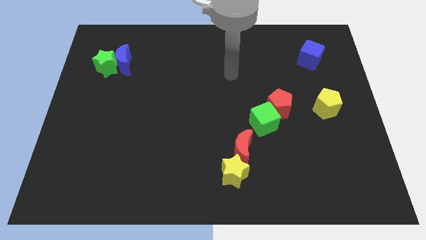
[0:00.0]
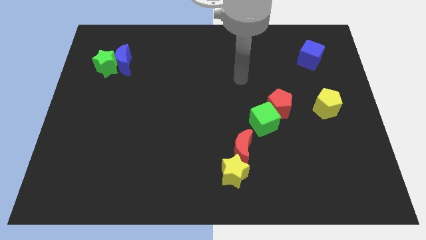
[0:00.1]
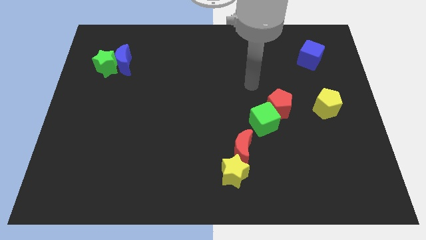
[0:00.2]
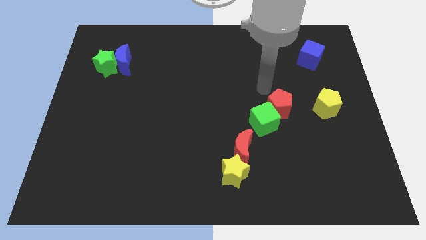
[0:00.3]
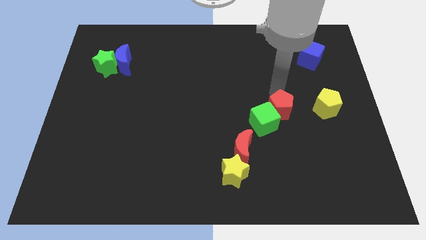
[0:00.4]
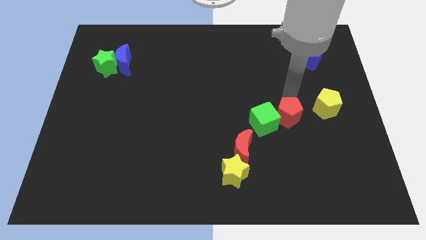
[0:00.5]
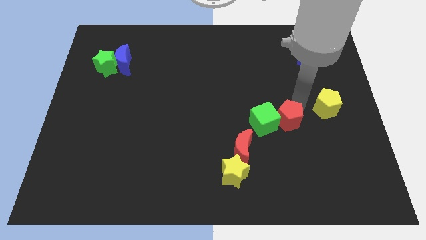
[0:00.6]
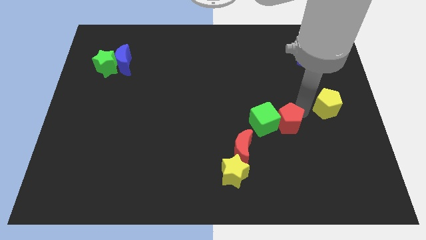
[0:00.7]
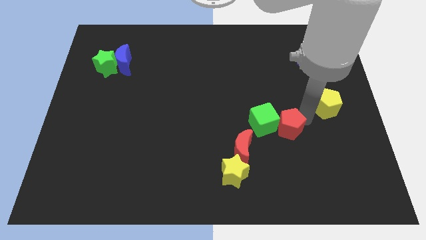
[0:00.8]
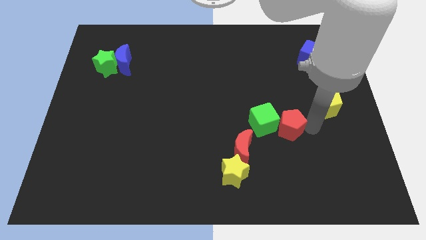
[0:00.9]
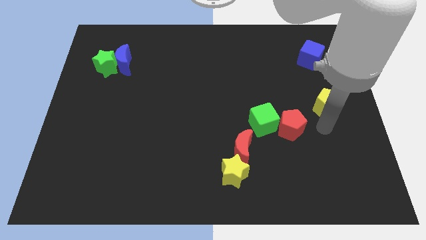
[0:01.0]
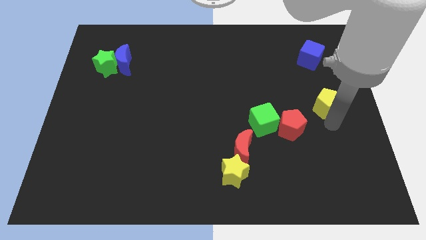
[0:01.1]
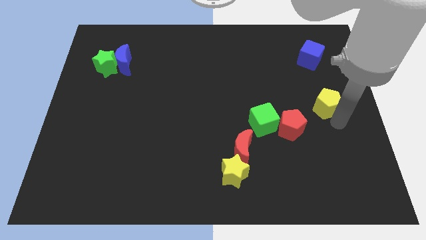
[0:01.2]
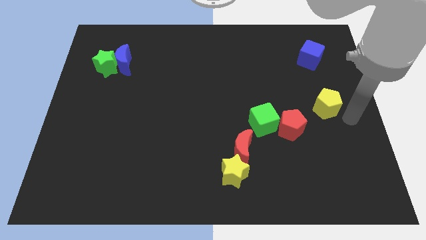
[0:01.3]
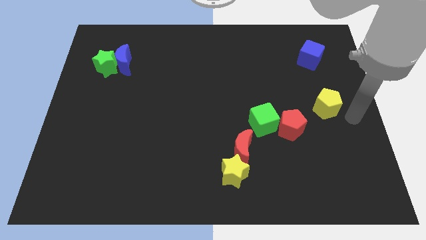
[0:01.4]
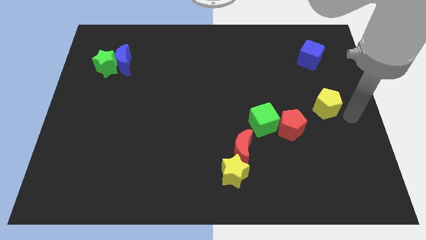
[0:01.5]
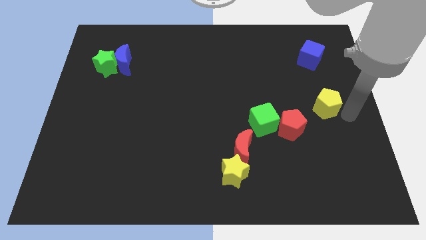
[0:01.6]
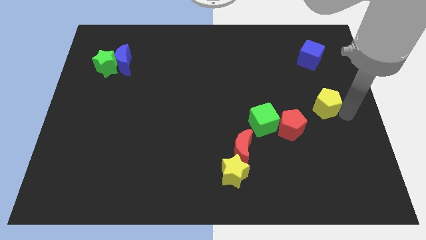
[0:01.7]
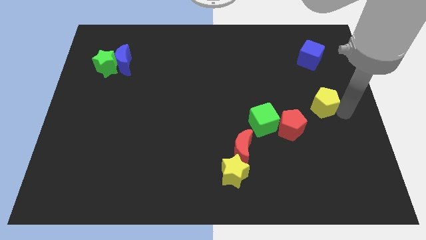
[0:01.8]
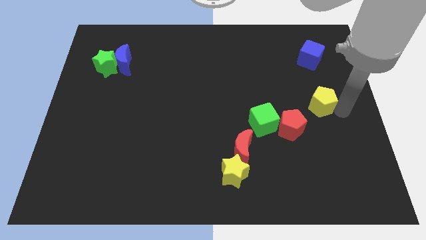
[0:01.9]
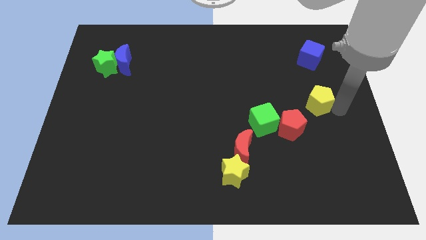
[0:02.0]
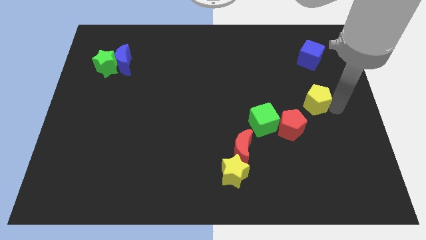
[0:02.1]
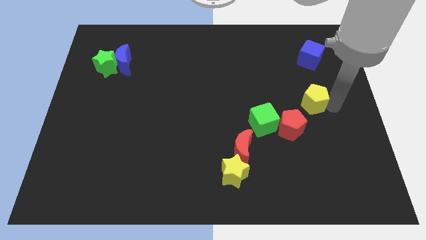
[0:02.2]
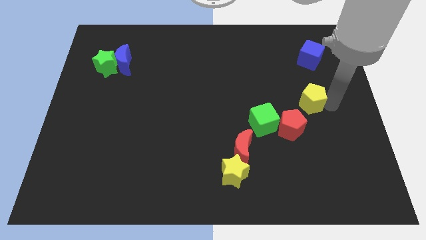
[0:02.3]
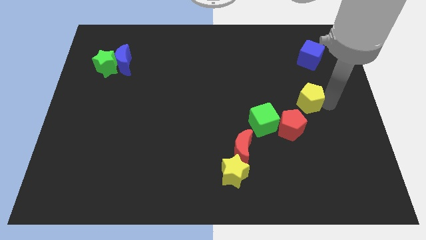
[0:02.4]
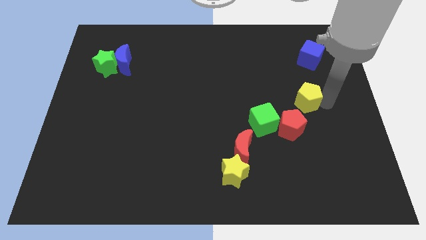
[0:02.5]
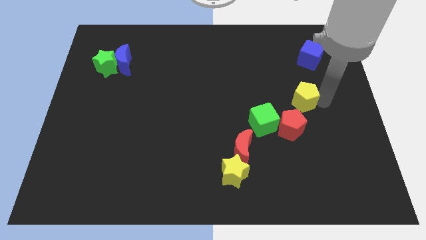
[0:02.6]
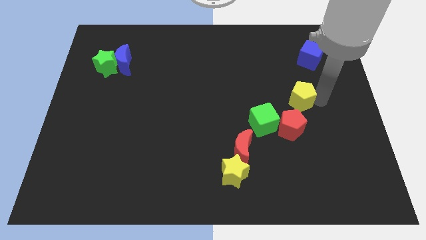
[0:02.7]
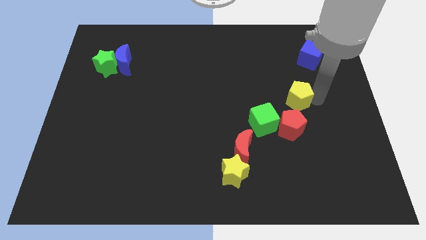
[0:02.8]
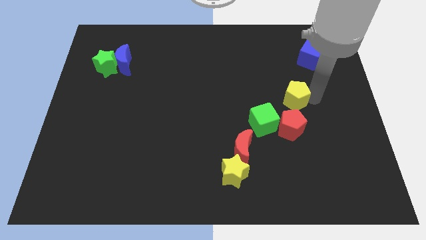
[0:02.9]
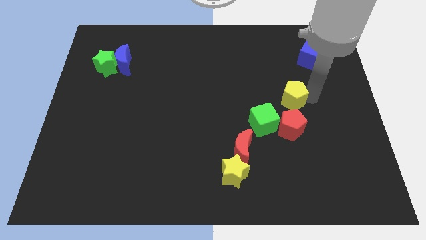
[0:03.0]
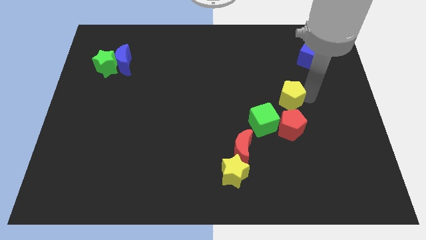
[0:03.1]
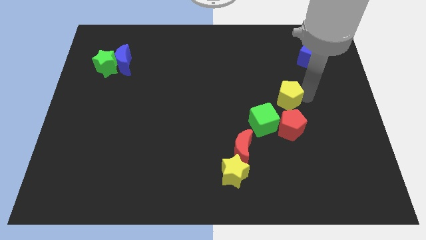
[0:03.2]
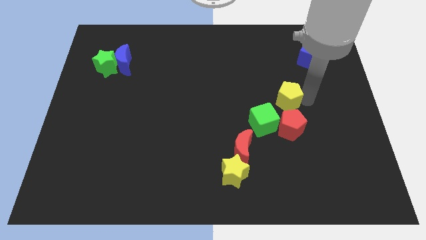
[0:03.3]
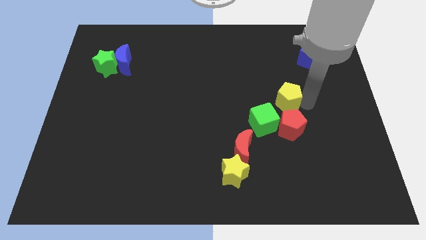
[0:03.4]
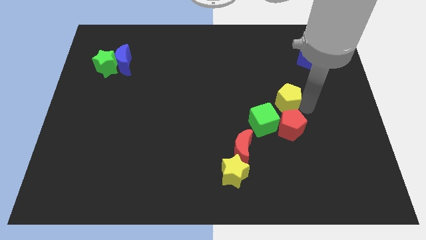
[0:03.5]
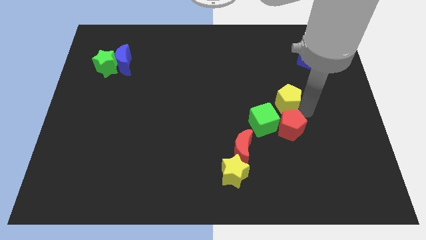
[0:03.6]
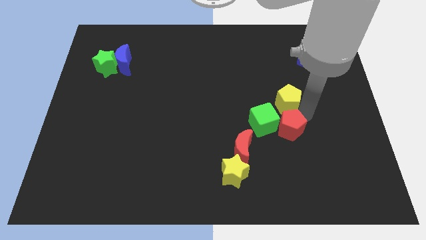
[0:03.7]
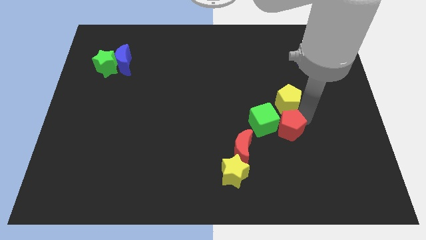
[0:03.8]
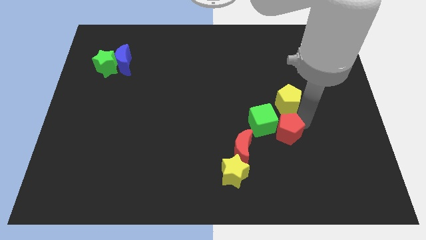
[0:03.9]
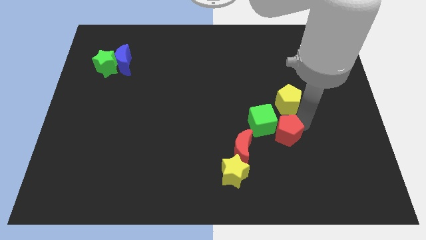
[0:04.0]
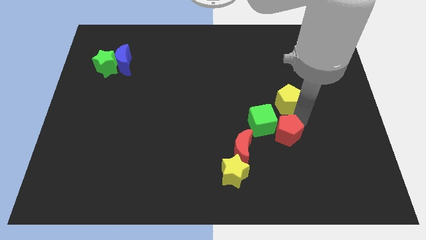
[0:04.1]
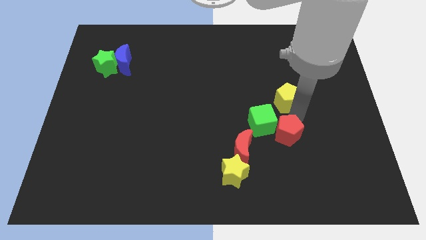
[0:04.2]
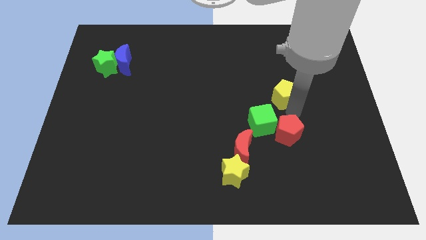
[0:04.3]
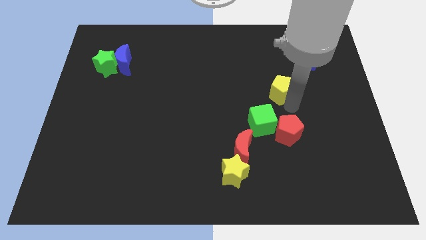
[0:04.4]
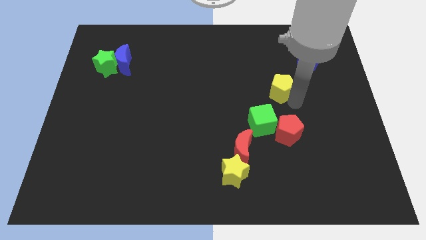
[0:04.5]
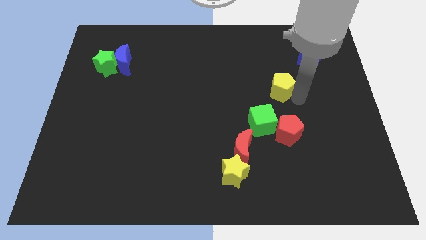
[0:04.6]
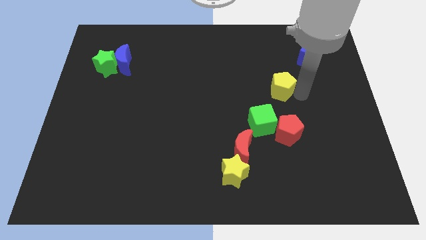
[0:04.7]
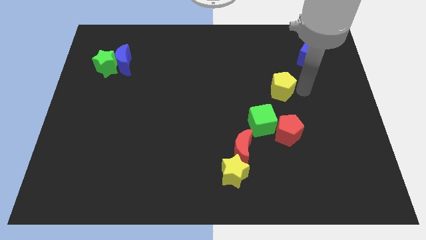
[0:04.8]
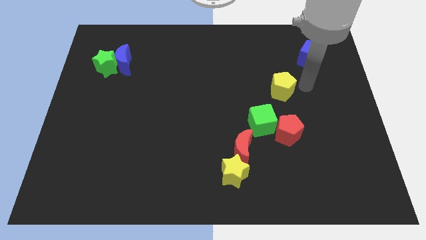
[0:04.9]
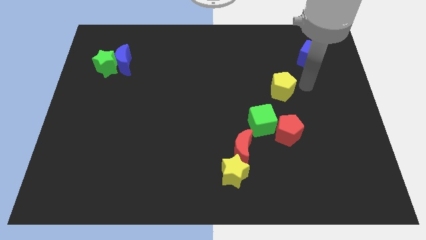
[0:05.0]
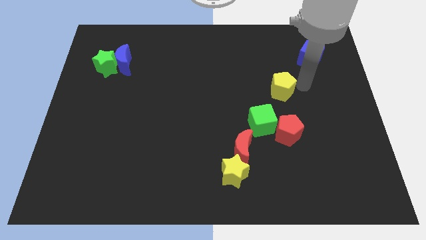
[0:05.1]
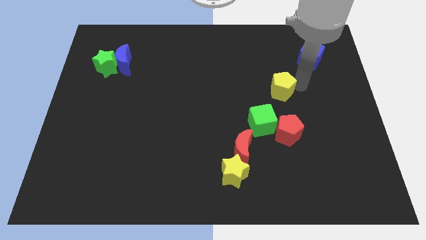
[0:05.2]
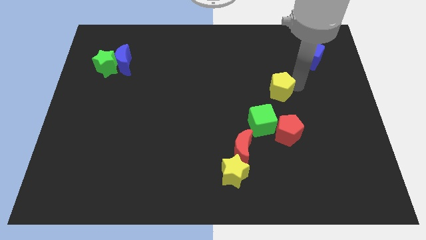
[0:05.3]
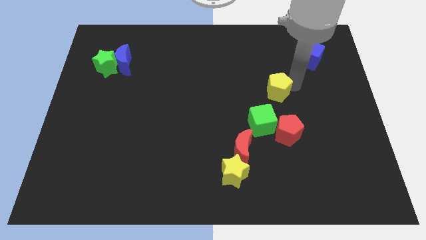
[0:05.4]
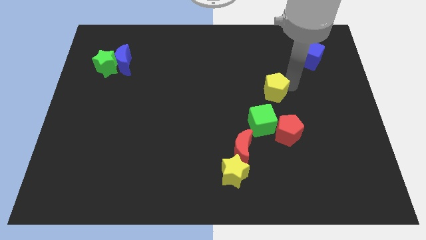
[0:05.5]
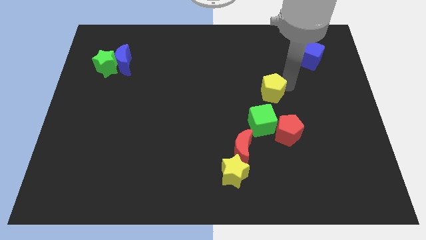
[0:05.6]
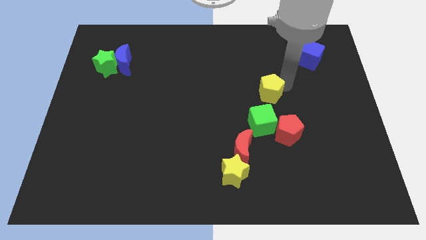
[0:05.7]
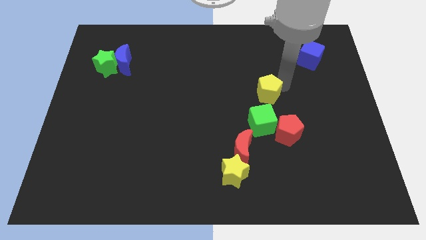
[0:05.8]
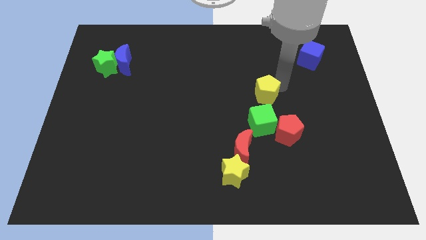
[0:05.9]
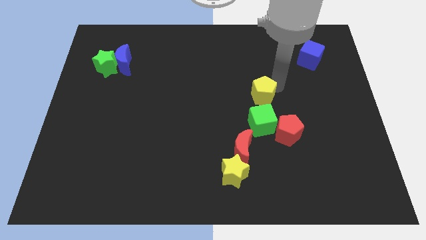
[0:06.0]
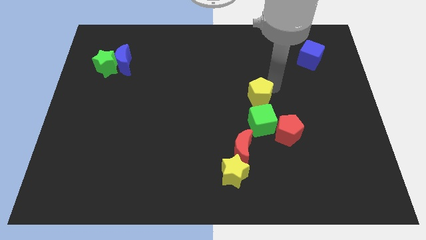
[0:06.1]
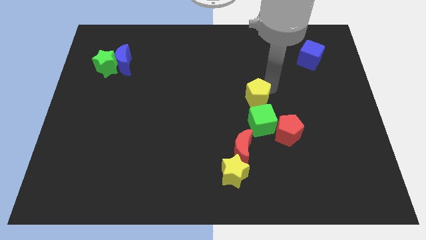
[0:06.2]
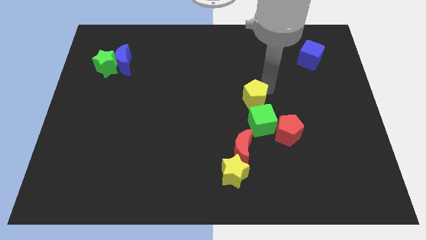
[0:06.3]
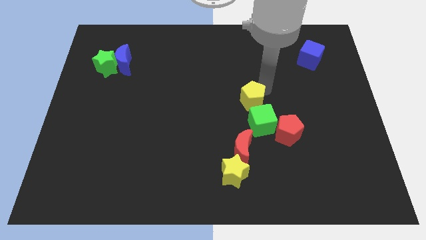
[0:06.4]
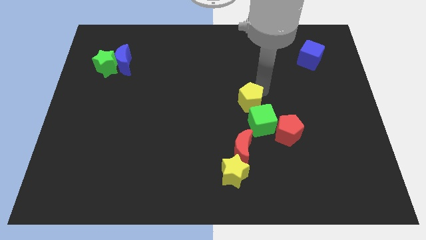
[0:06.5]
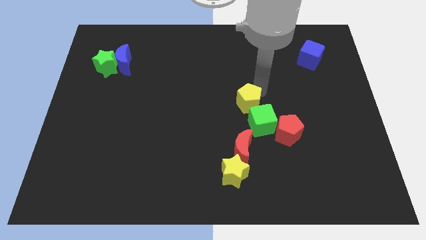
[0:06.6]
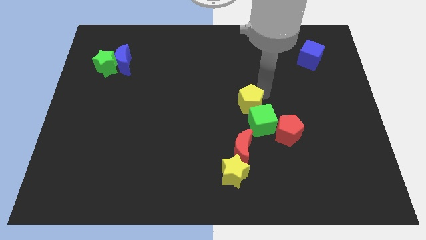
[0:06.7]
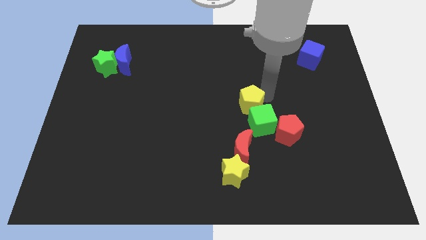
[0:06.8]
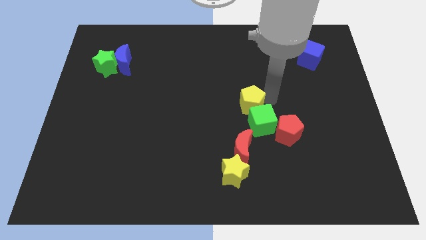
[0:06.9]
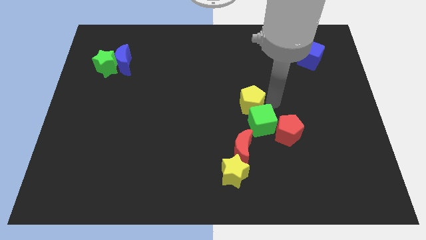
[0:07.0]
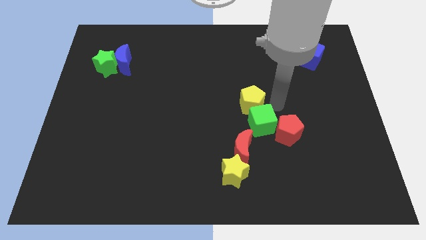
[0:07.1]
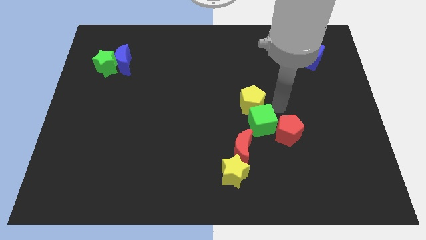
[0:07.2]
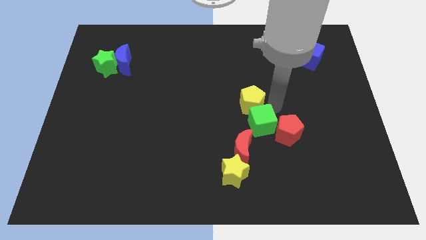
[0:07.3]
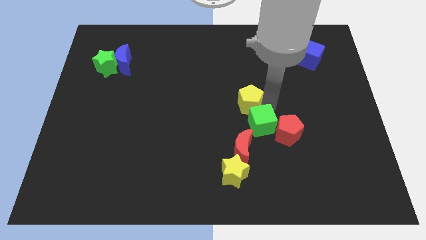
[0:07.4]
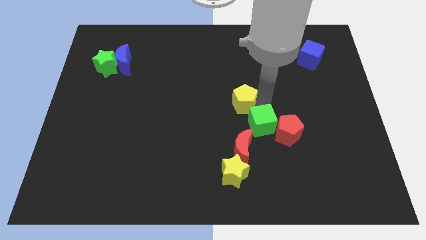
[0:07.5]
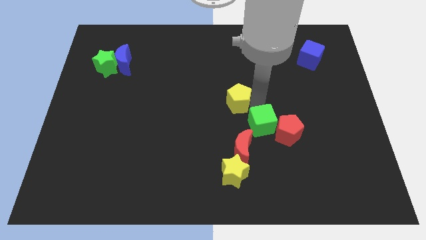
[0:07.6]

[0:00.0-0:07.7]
slide the yellow pentagon left

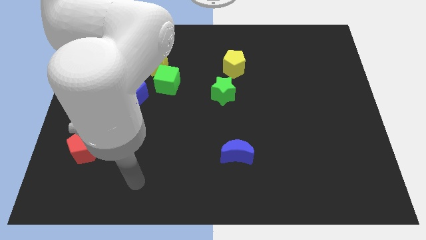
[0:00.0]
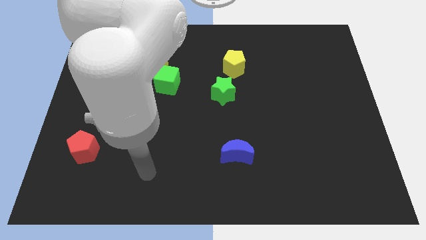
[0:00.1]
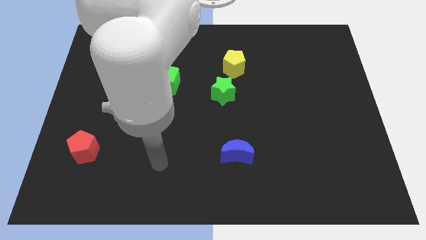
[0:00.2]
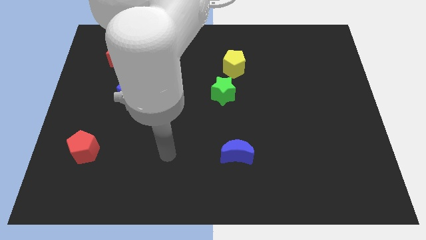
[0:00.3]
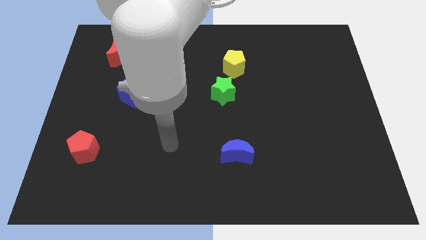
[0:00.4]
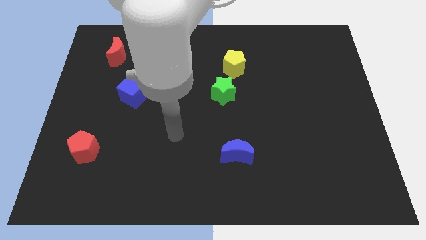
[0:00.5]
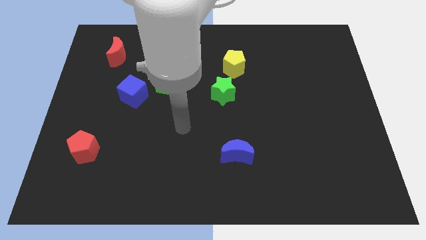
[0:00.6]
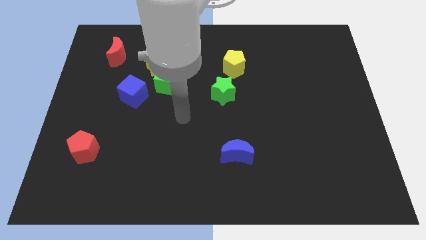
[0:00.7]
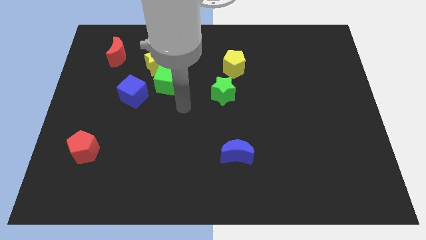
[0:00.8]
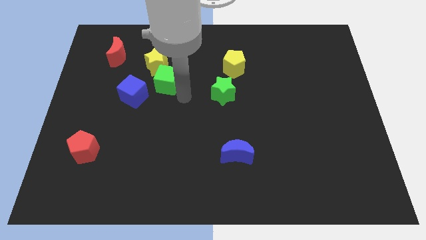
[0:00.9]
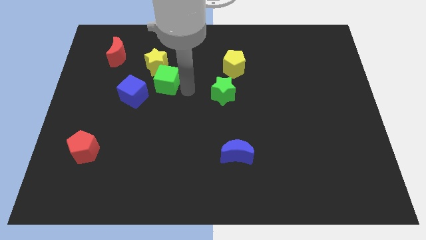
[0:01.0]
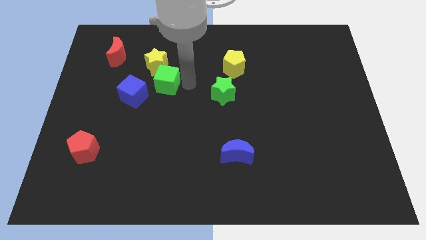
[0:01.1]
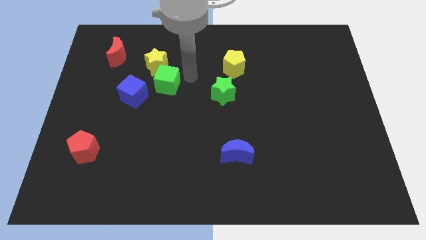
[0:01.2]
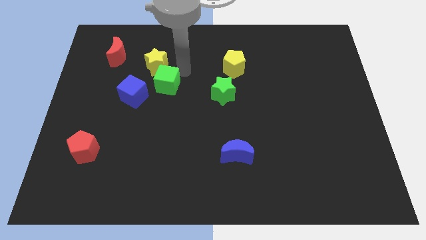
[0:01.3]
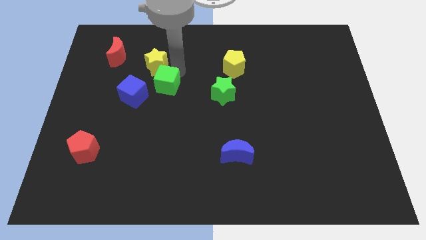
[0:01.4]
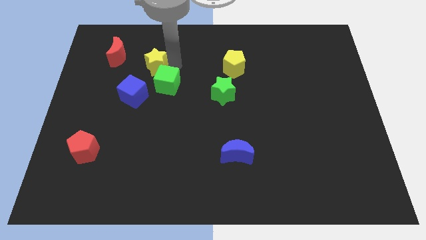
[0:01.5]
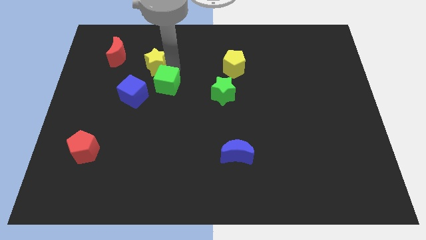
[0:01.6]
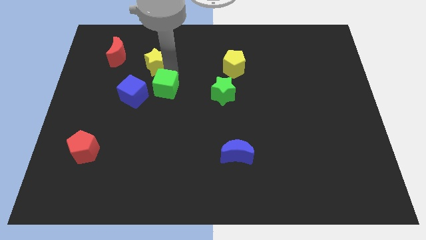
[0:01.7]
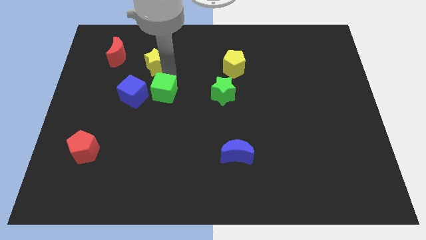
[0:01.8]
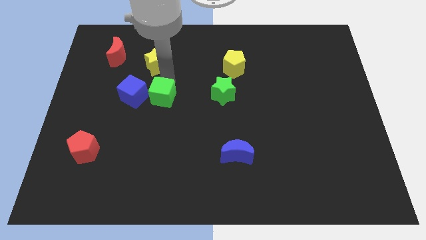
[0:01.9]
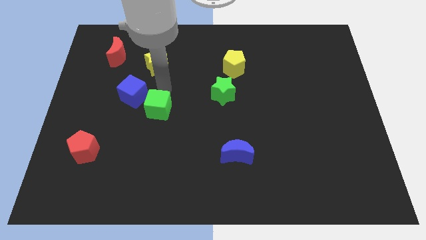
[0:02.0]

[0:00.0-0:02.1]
push the green cube slightly downwards
